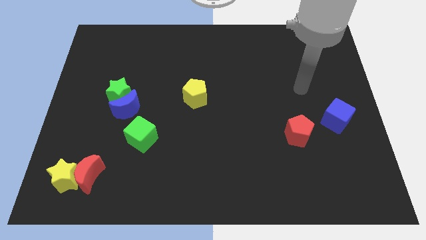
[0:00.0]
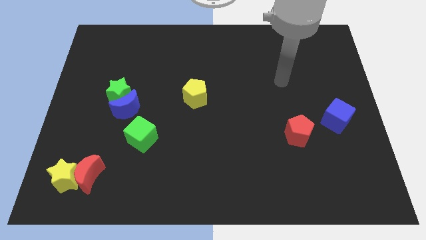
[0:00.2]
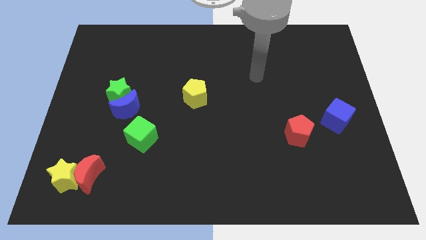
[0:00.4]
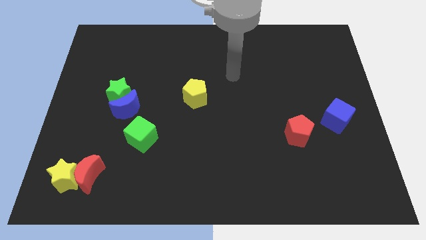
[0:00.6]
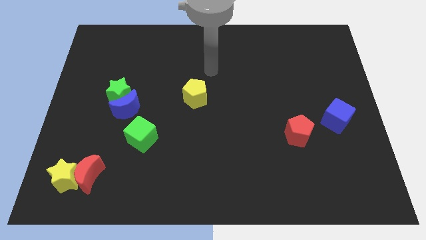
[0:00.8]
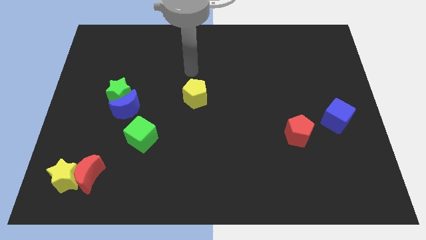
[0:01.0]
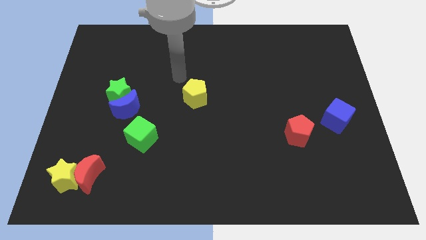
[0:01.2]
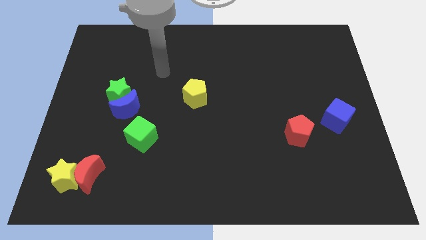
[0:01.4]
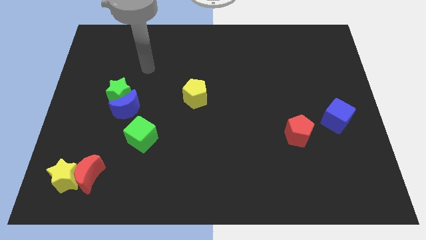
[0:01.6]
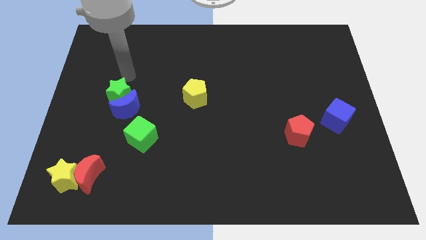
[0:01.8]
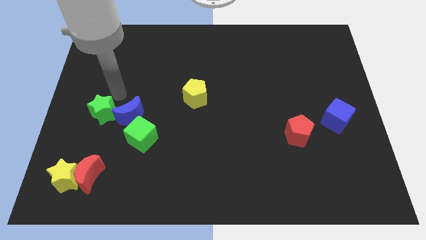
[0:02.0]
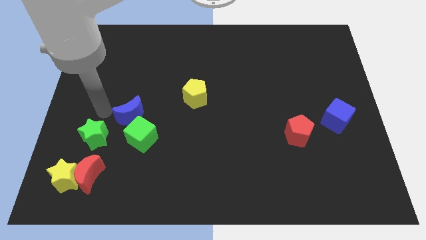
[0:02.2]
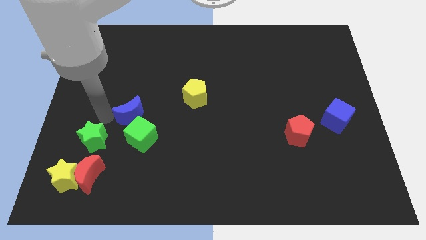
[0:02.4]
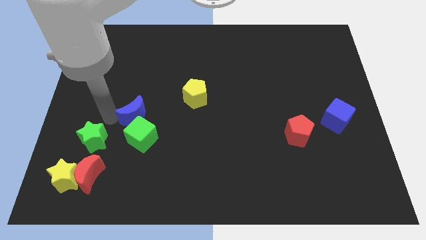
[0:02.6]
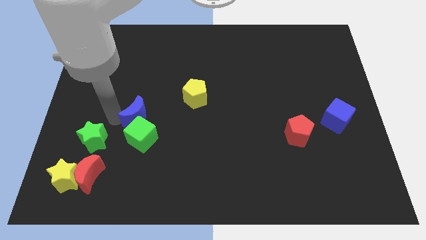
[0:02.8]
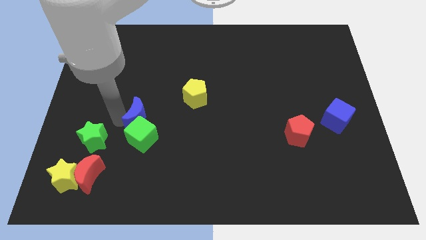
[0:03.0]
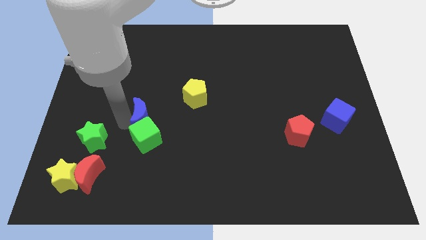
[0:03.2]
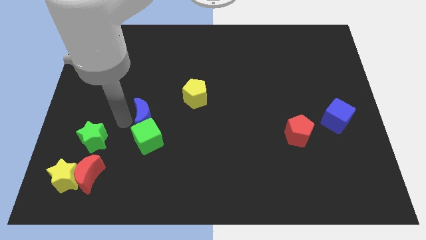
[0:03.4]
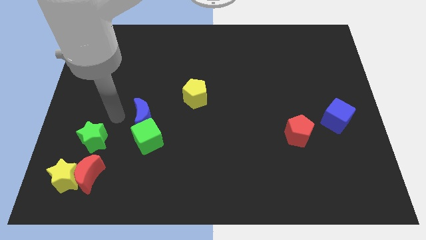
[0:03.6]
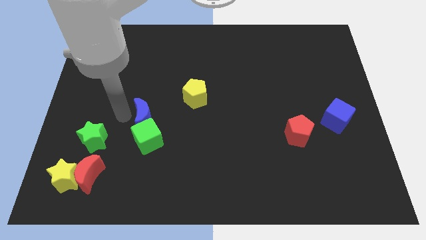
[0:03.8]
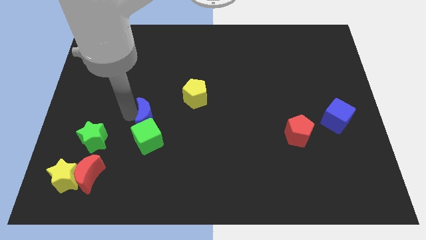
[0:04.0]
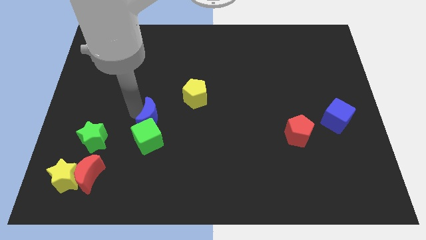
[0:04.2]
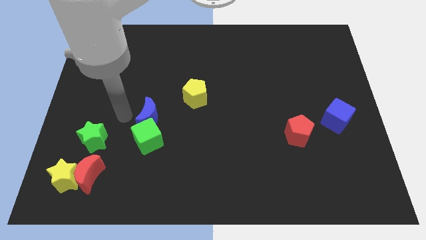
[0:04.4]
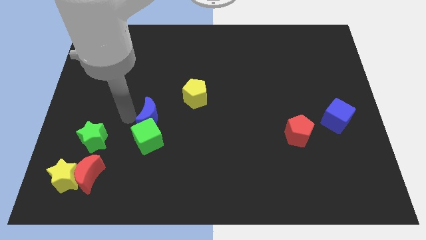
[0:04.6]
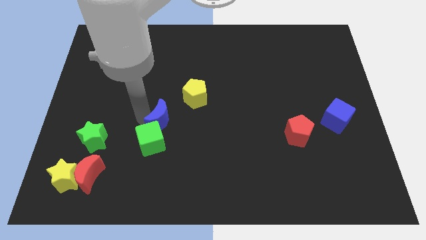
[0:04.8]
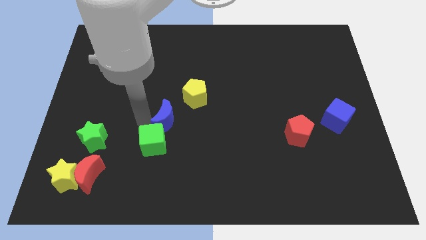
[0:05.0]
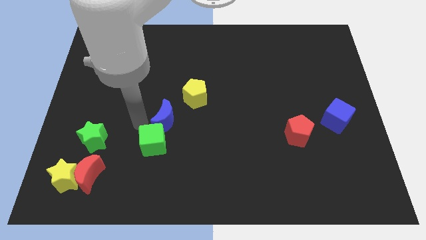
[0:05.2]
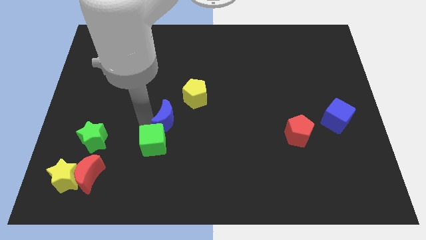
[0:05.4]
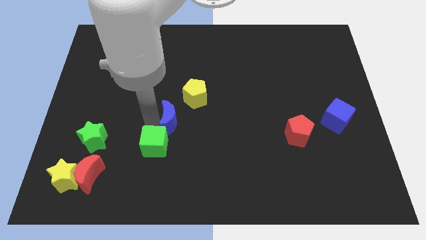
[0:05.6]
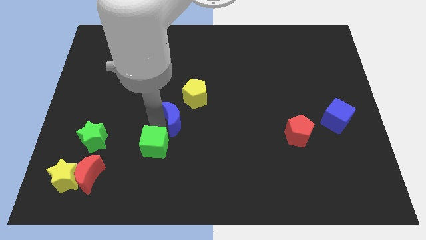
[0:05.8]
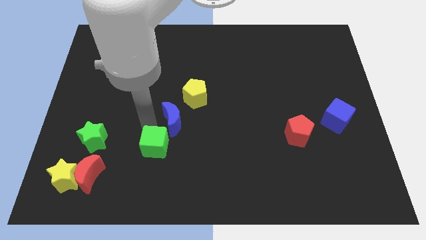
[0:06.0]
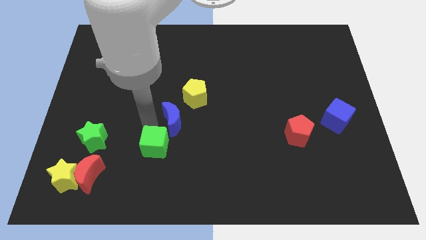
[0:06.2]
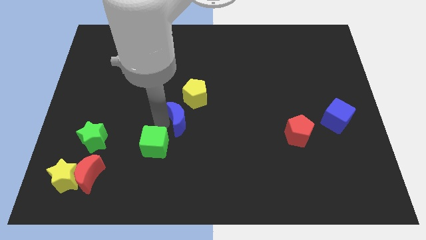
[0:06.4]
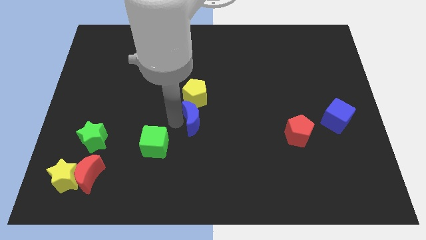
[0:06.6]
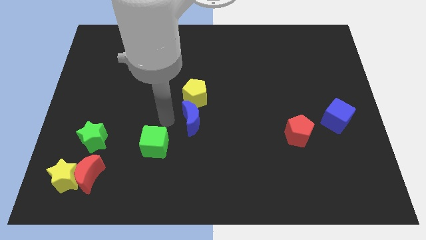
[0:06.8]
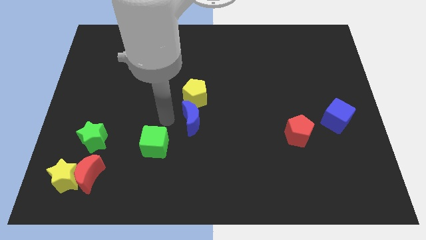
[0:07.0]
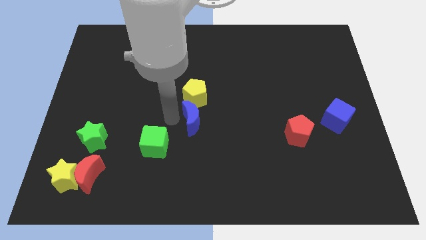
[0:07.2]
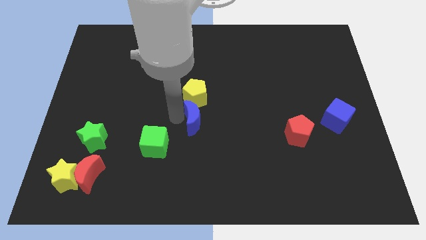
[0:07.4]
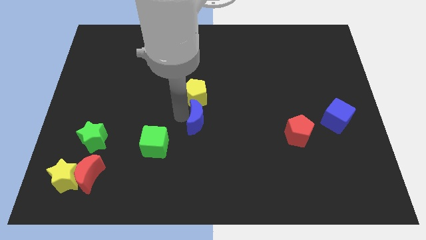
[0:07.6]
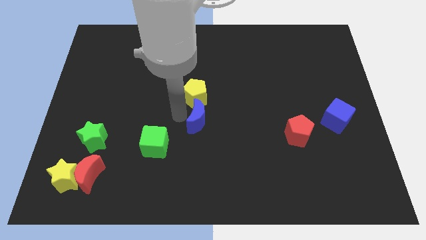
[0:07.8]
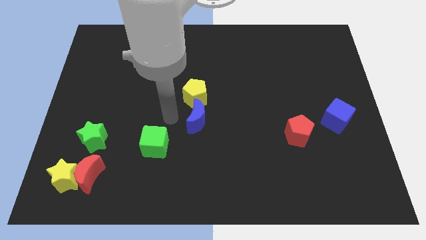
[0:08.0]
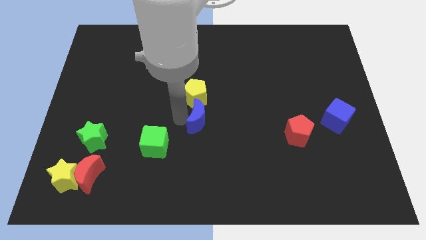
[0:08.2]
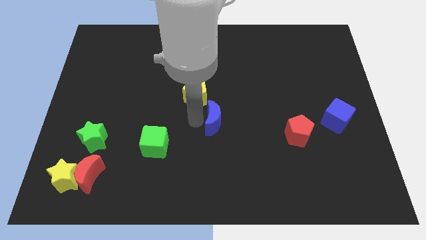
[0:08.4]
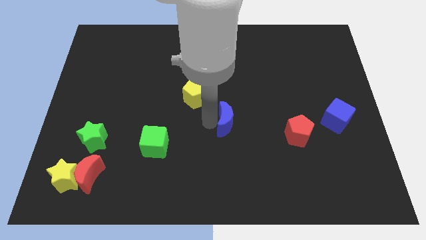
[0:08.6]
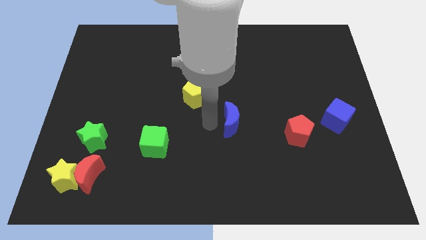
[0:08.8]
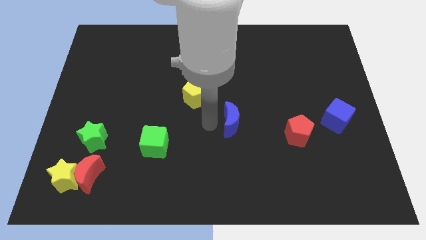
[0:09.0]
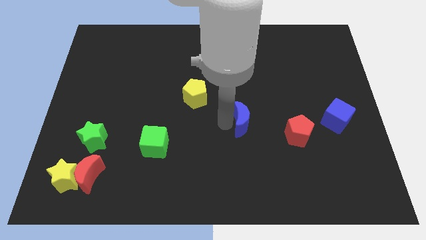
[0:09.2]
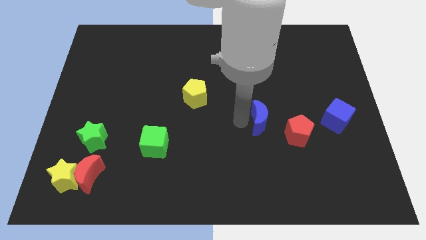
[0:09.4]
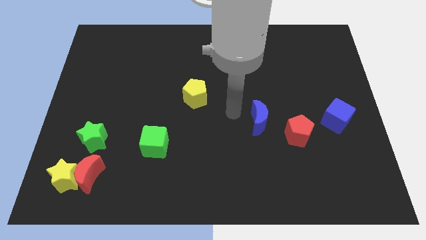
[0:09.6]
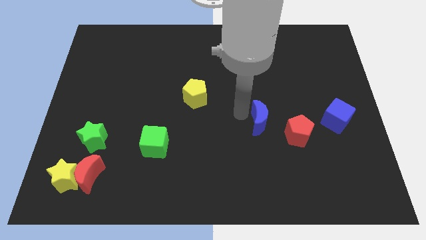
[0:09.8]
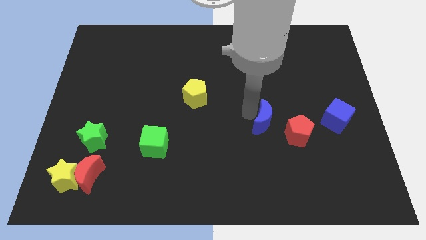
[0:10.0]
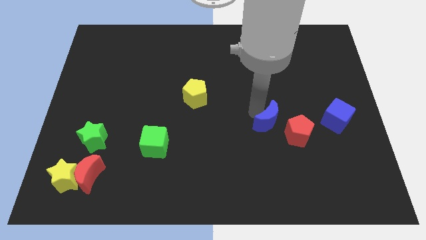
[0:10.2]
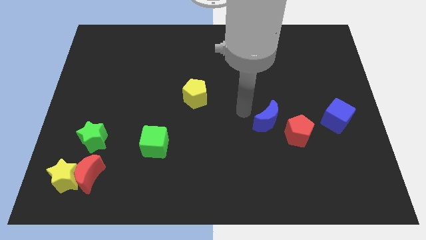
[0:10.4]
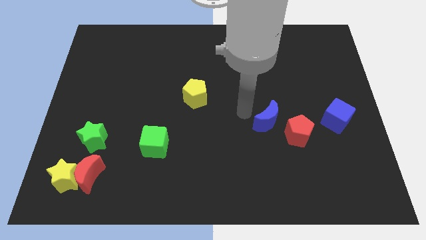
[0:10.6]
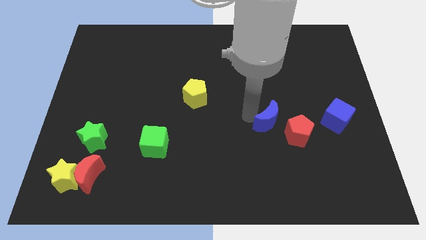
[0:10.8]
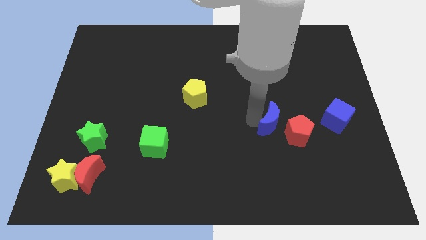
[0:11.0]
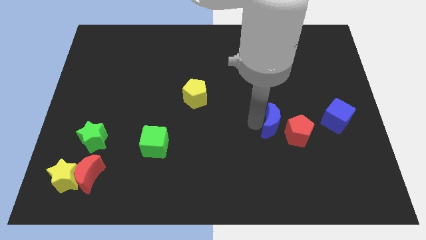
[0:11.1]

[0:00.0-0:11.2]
push the blue moon towards the red pentagon

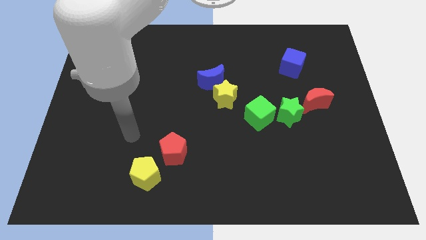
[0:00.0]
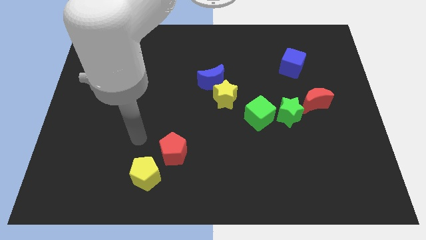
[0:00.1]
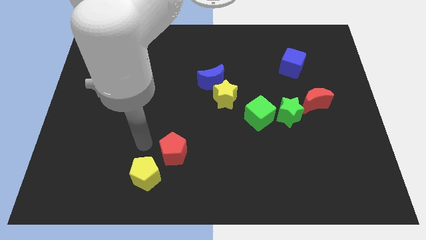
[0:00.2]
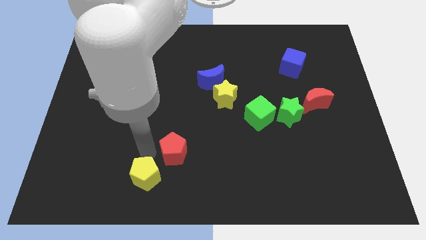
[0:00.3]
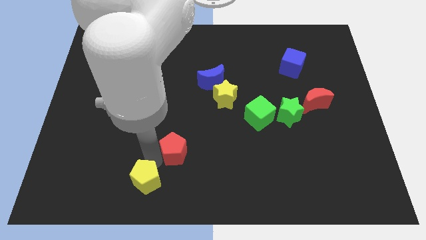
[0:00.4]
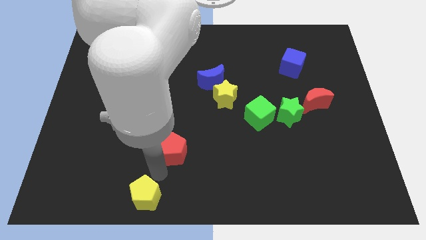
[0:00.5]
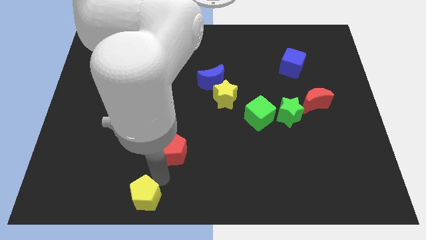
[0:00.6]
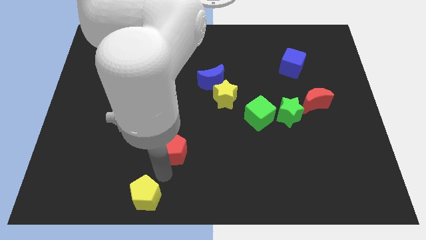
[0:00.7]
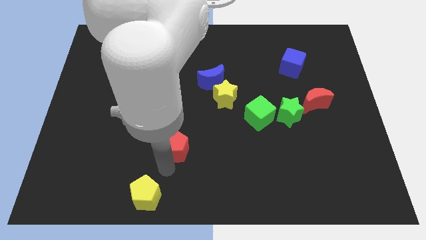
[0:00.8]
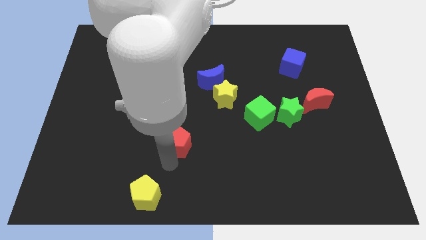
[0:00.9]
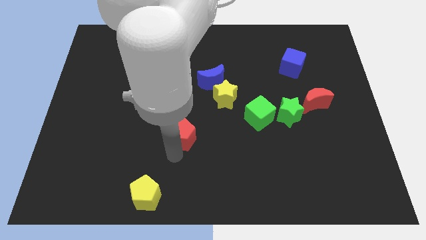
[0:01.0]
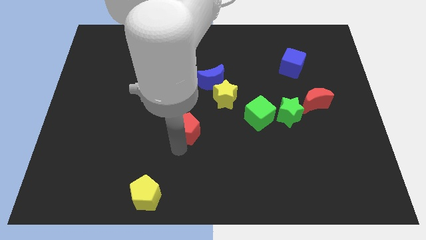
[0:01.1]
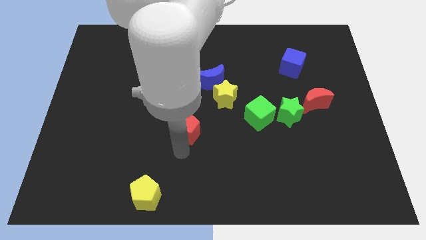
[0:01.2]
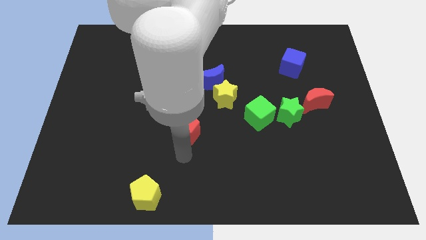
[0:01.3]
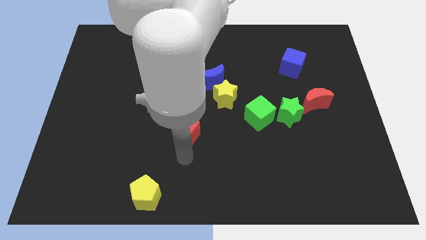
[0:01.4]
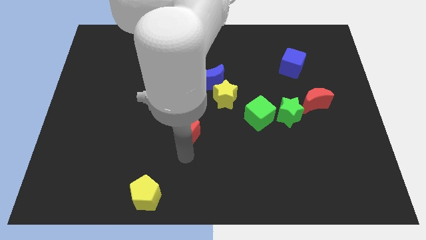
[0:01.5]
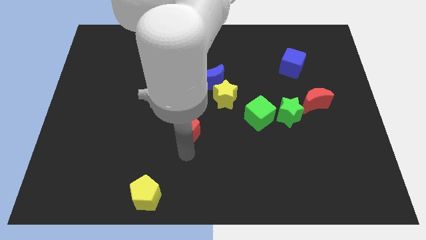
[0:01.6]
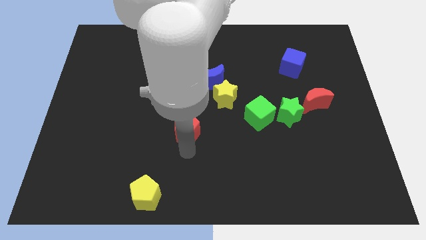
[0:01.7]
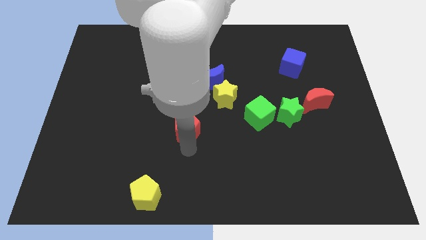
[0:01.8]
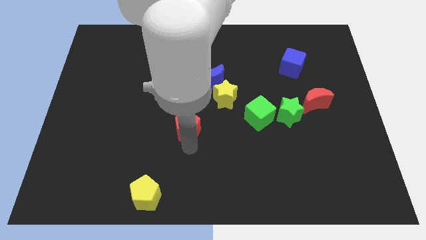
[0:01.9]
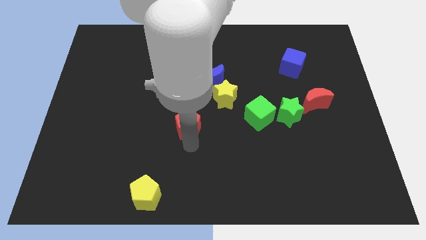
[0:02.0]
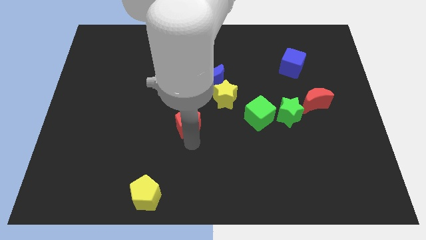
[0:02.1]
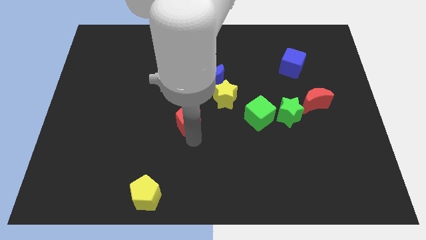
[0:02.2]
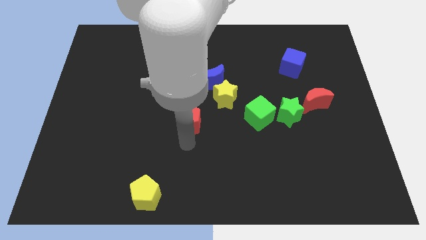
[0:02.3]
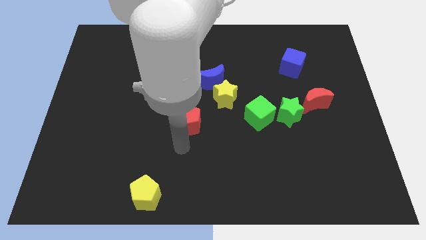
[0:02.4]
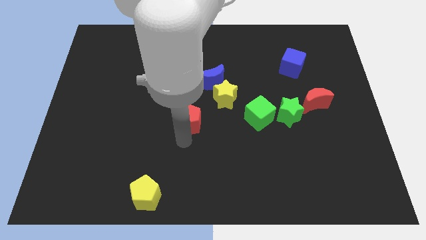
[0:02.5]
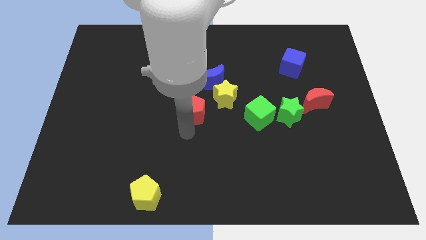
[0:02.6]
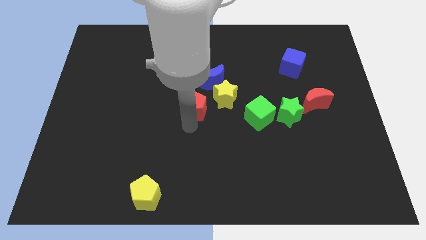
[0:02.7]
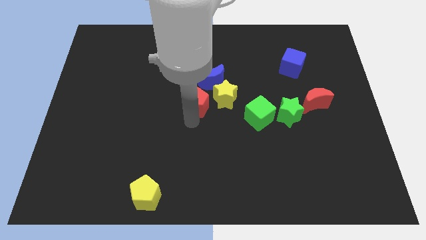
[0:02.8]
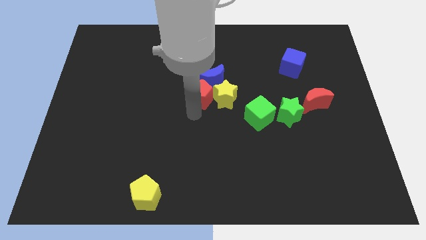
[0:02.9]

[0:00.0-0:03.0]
put the red pentagon towards the blue moon
